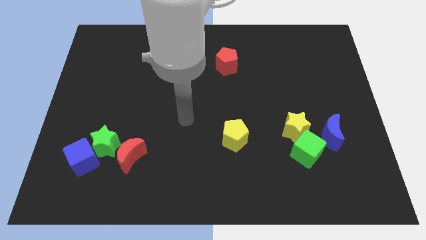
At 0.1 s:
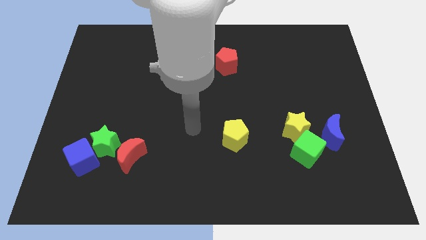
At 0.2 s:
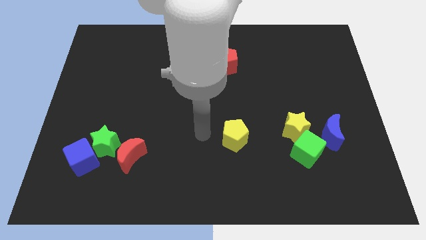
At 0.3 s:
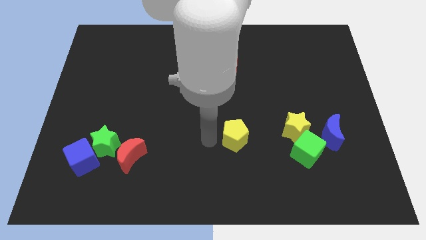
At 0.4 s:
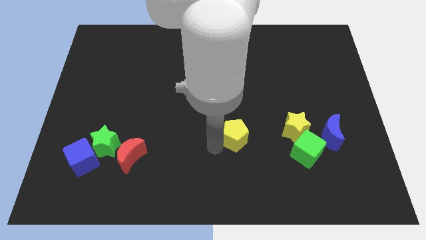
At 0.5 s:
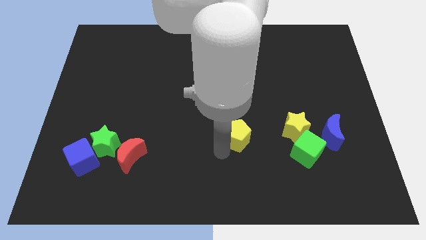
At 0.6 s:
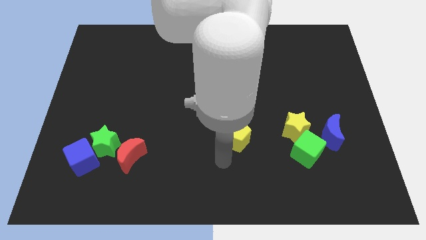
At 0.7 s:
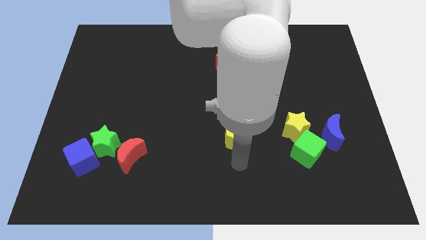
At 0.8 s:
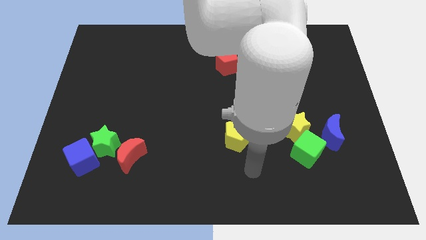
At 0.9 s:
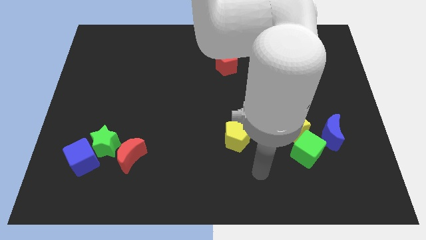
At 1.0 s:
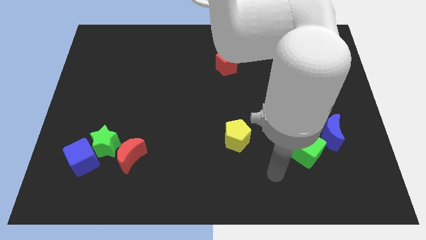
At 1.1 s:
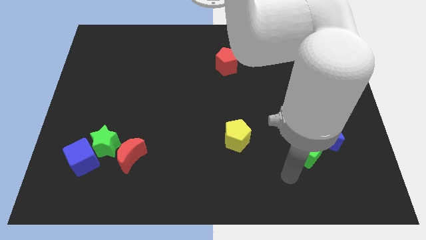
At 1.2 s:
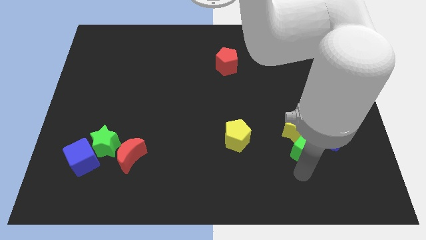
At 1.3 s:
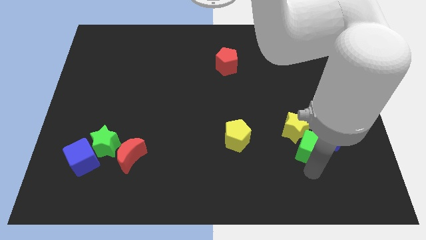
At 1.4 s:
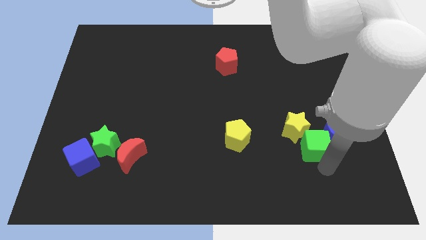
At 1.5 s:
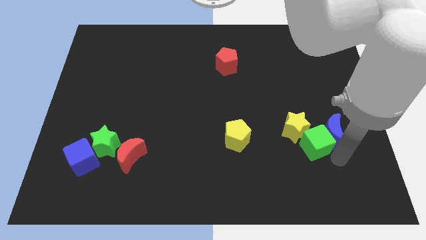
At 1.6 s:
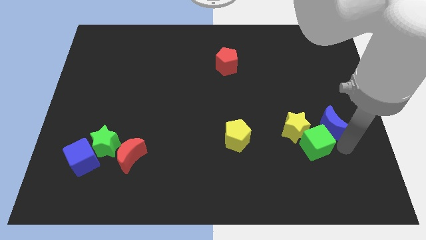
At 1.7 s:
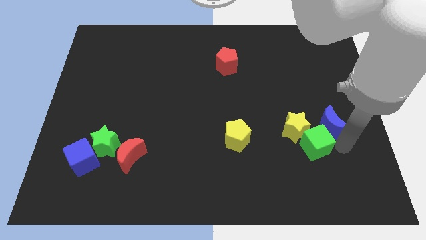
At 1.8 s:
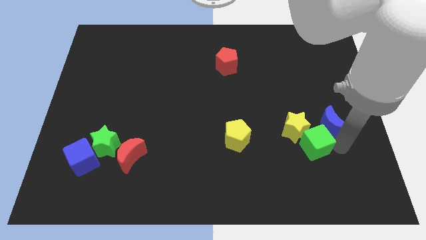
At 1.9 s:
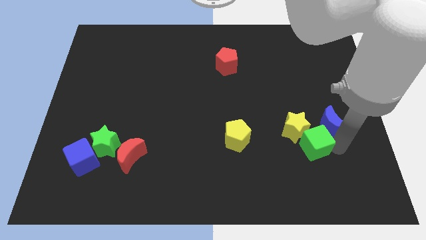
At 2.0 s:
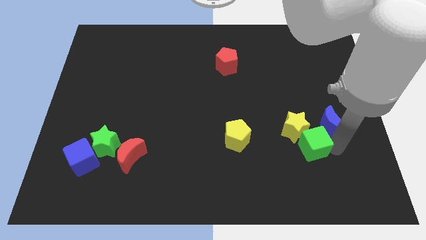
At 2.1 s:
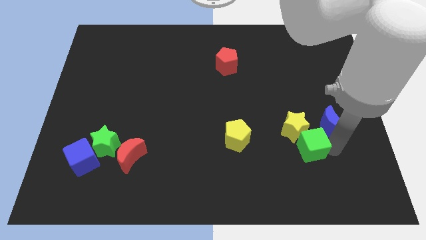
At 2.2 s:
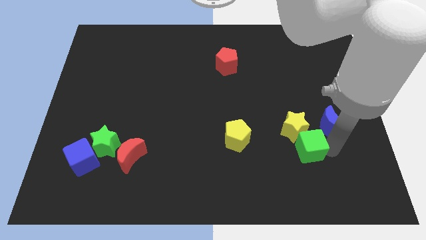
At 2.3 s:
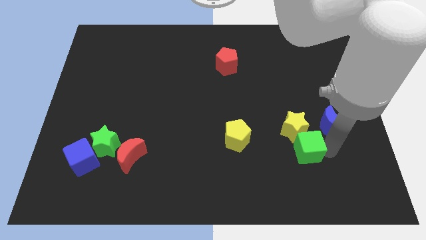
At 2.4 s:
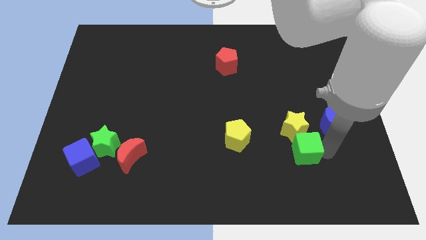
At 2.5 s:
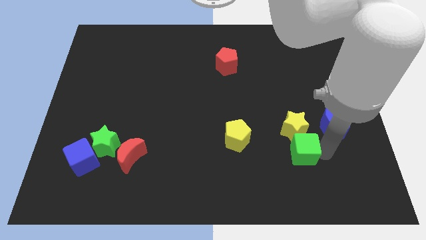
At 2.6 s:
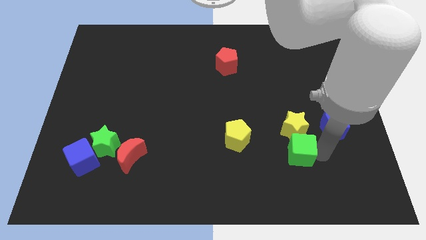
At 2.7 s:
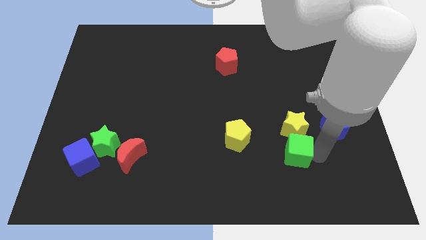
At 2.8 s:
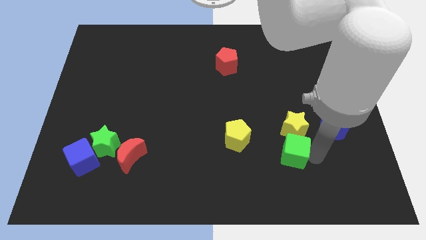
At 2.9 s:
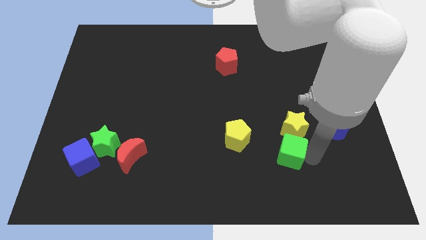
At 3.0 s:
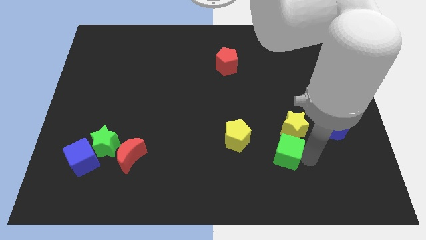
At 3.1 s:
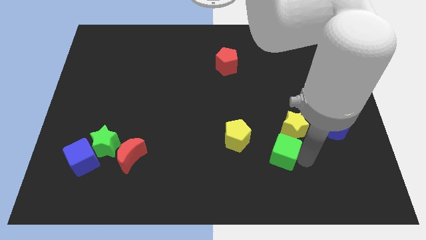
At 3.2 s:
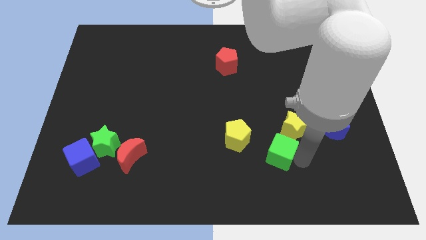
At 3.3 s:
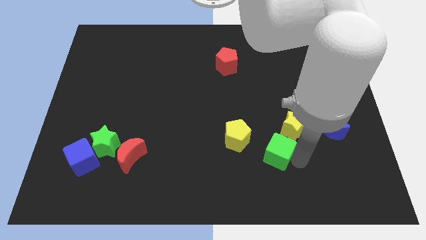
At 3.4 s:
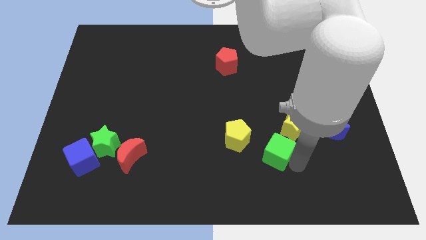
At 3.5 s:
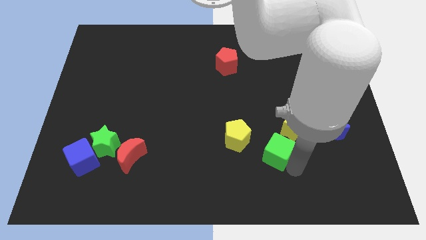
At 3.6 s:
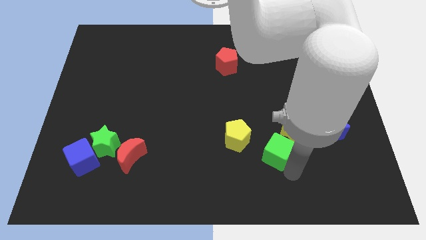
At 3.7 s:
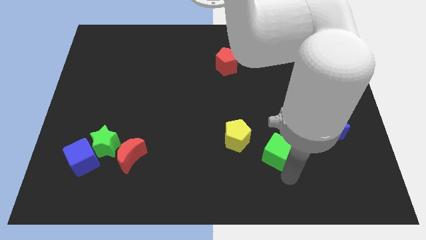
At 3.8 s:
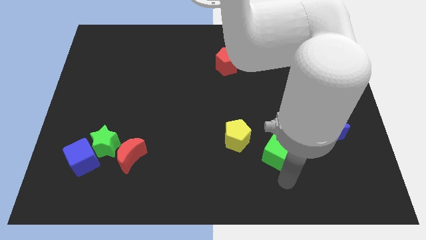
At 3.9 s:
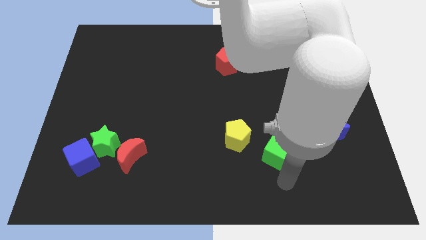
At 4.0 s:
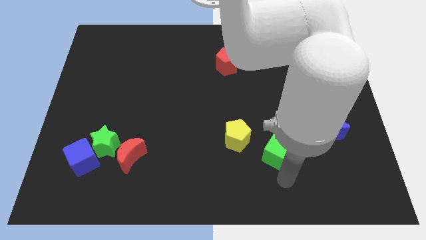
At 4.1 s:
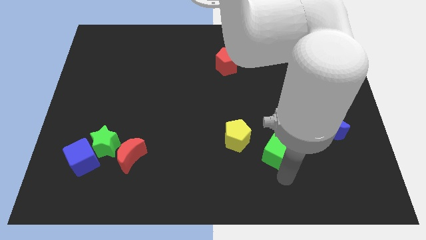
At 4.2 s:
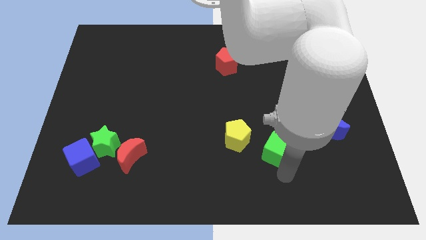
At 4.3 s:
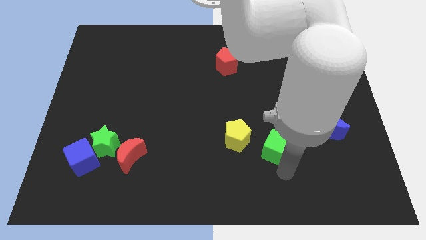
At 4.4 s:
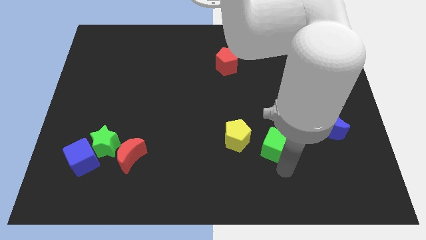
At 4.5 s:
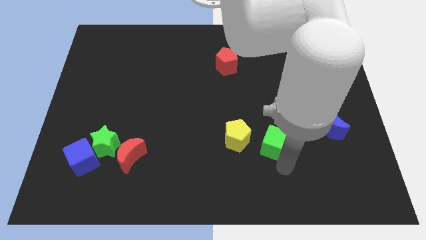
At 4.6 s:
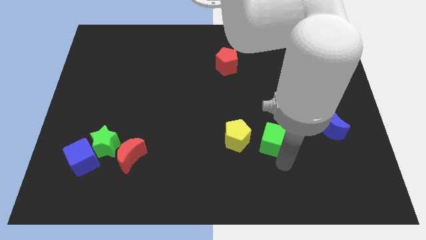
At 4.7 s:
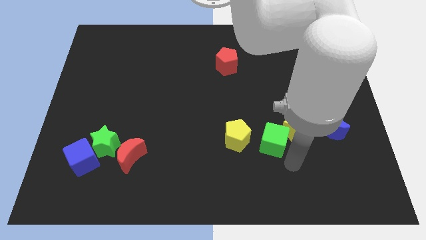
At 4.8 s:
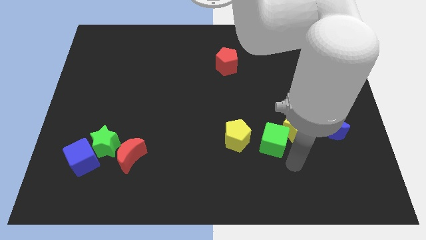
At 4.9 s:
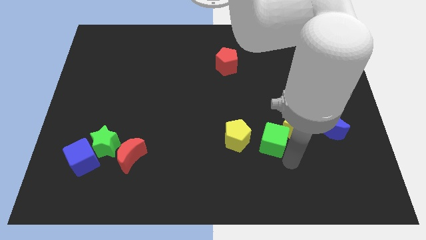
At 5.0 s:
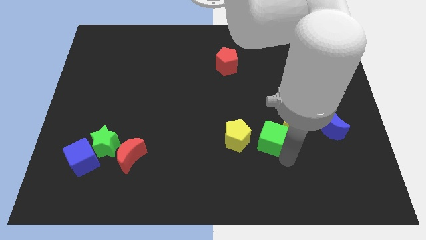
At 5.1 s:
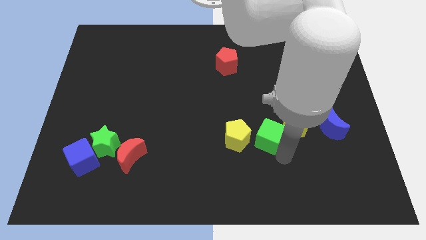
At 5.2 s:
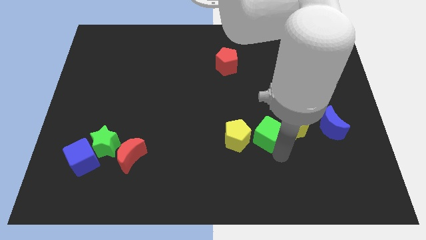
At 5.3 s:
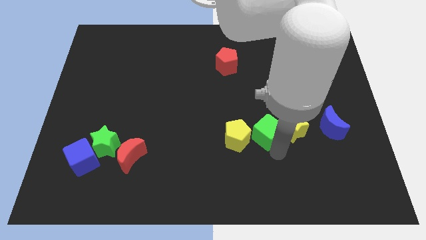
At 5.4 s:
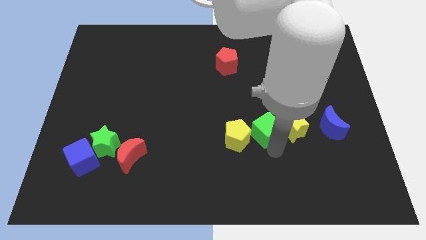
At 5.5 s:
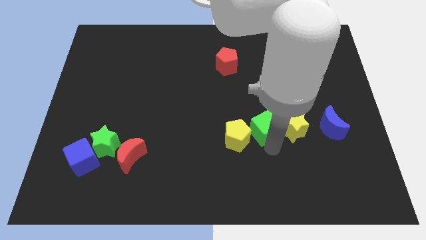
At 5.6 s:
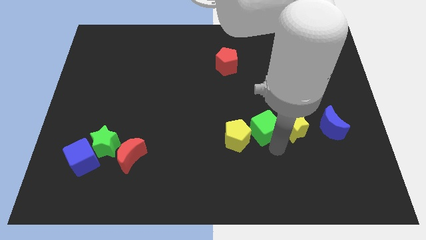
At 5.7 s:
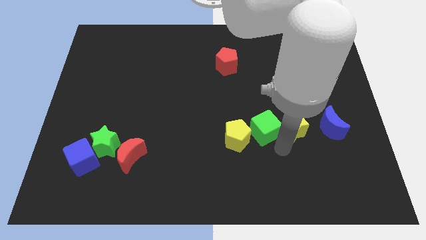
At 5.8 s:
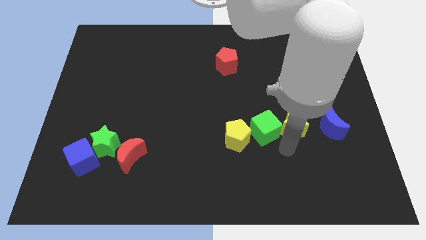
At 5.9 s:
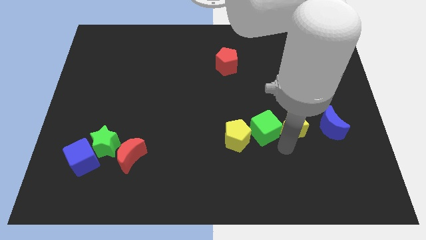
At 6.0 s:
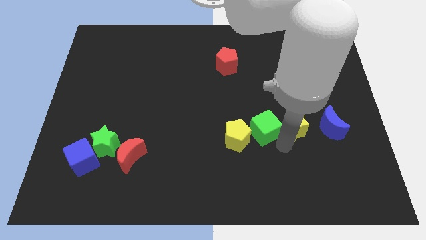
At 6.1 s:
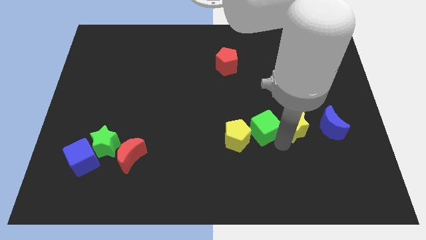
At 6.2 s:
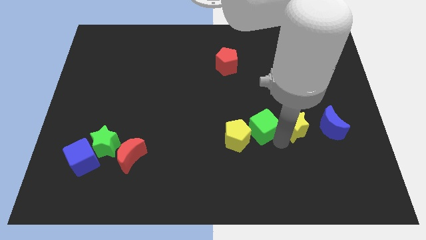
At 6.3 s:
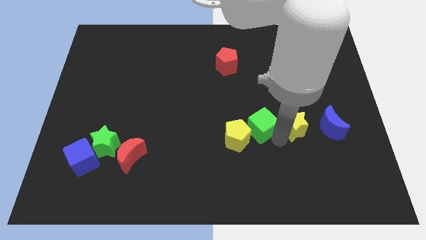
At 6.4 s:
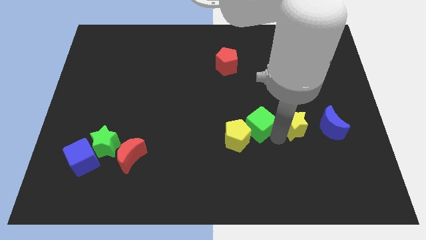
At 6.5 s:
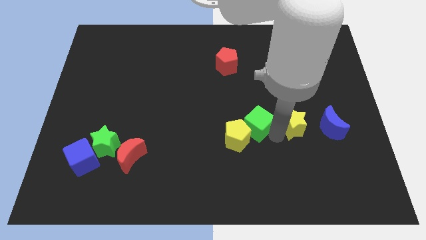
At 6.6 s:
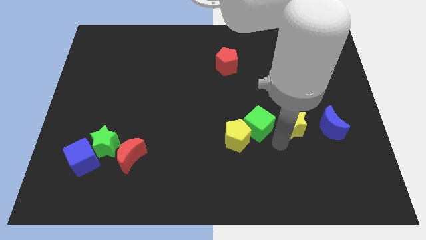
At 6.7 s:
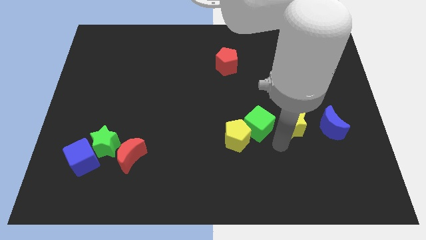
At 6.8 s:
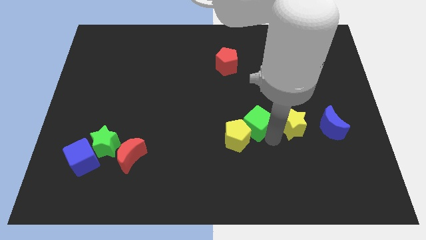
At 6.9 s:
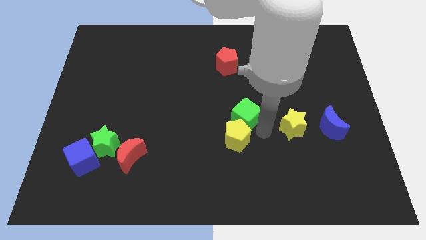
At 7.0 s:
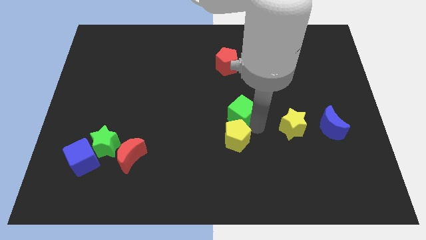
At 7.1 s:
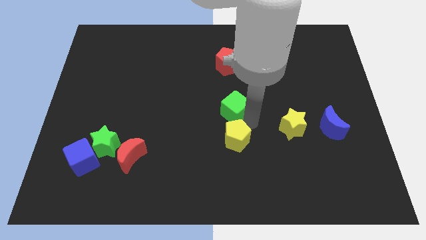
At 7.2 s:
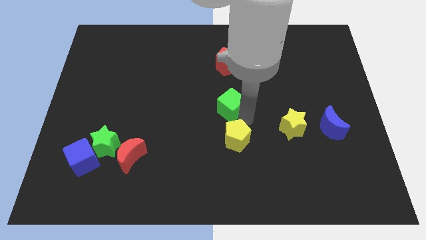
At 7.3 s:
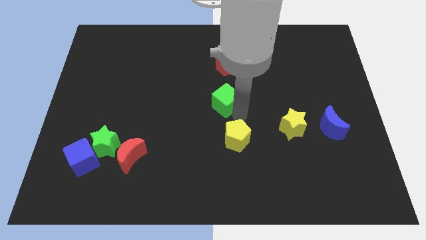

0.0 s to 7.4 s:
slide the green cube upwards and then to the left

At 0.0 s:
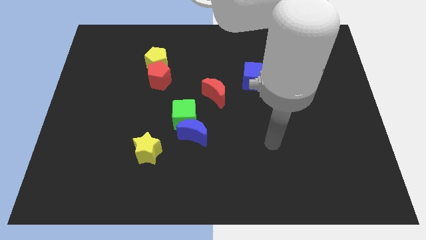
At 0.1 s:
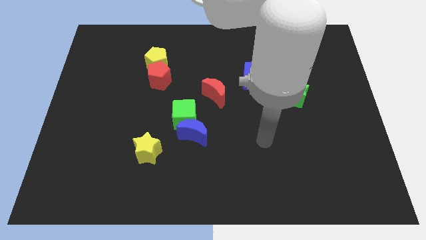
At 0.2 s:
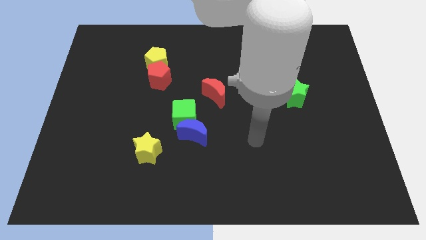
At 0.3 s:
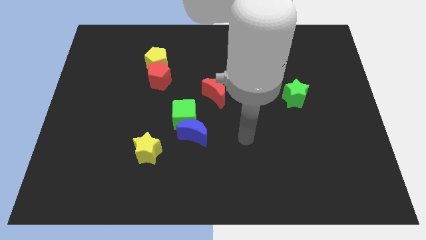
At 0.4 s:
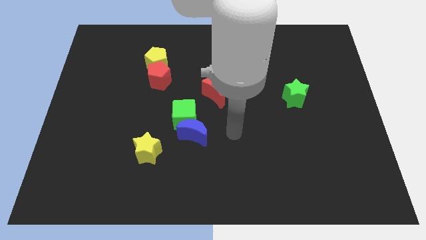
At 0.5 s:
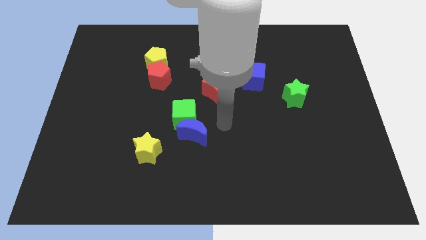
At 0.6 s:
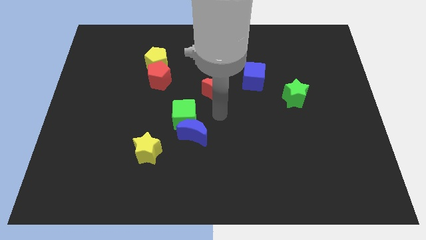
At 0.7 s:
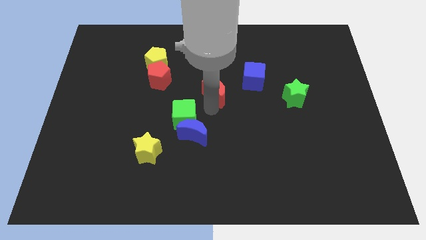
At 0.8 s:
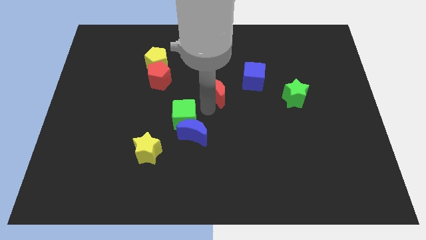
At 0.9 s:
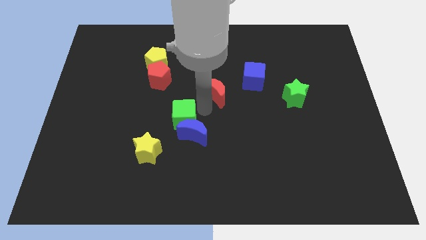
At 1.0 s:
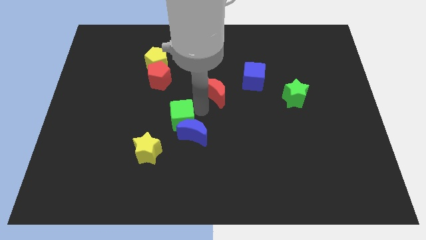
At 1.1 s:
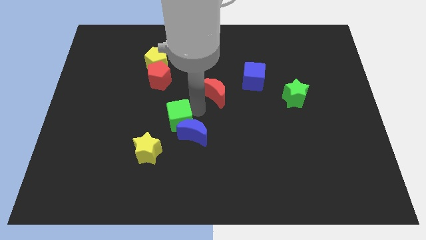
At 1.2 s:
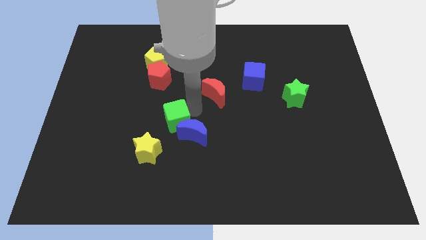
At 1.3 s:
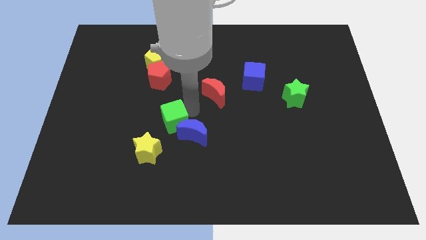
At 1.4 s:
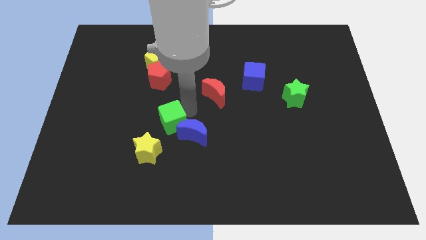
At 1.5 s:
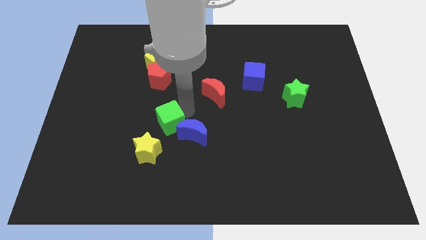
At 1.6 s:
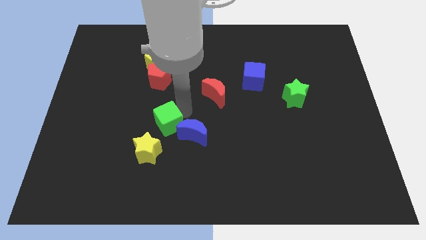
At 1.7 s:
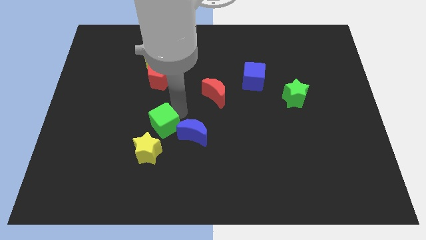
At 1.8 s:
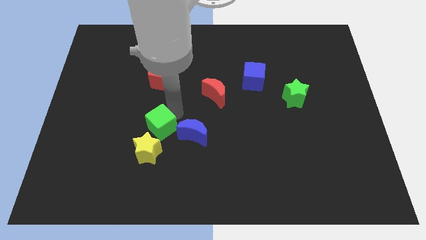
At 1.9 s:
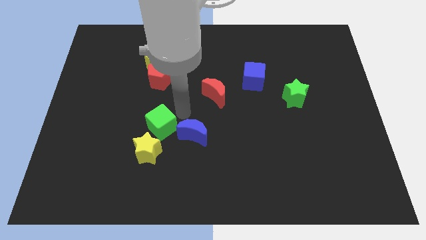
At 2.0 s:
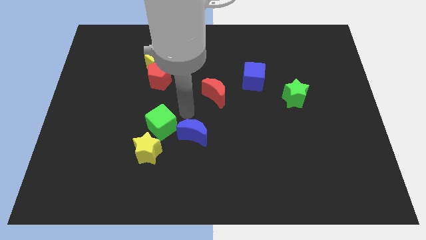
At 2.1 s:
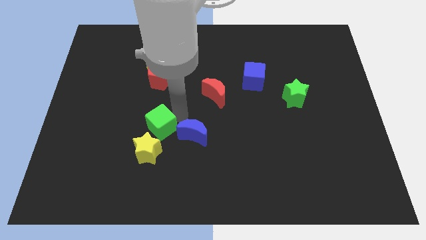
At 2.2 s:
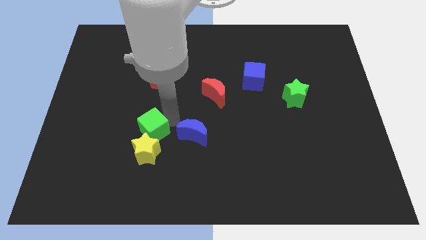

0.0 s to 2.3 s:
slightly slide the green cube down and to the left diagonally
